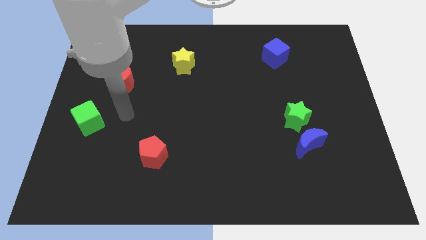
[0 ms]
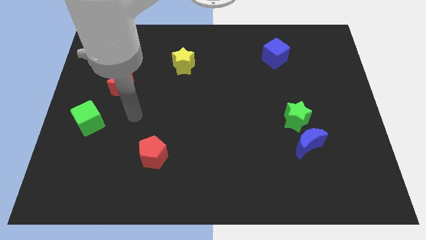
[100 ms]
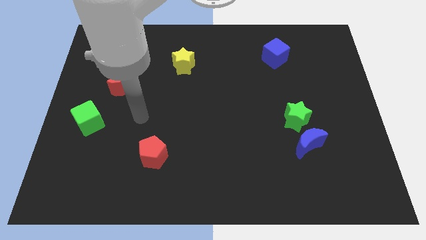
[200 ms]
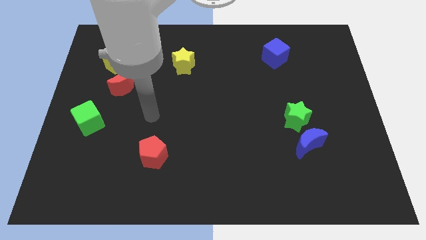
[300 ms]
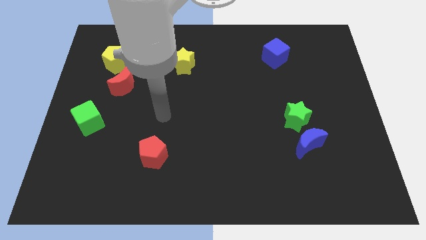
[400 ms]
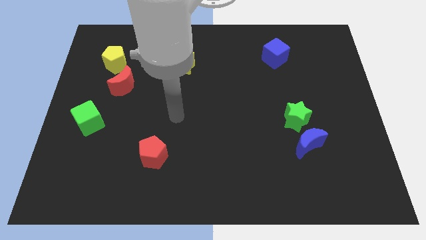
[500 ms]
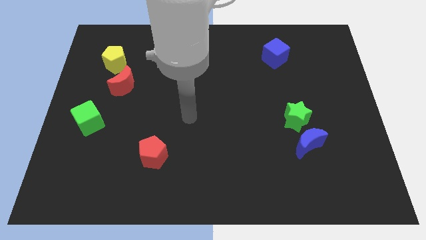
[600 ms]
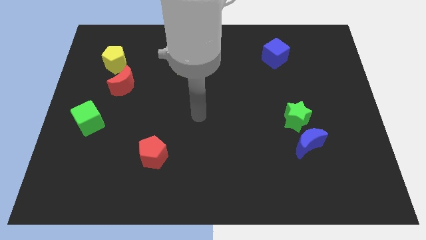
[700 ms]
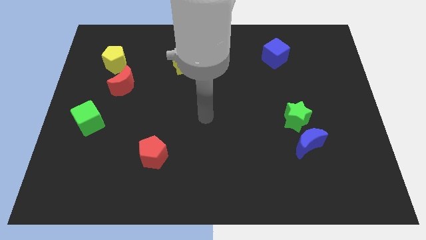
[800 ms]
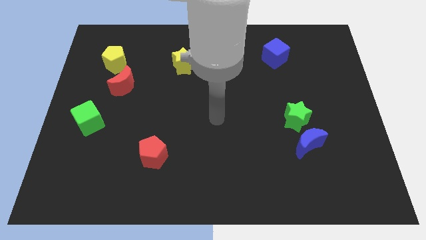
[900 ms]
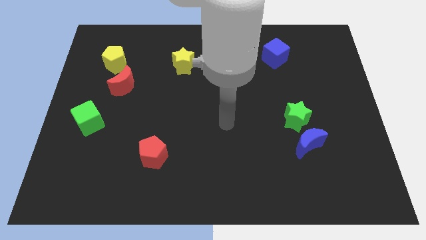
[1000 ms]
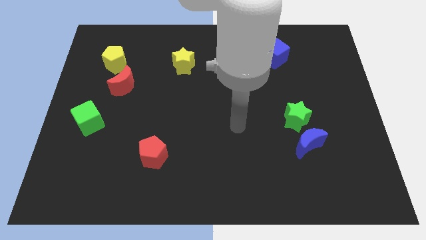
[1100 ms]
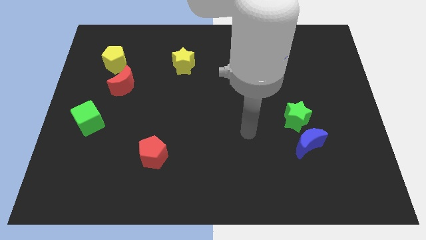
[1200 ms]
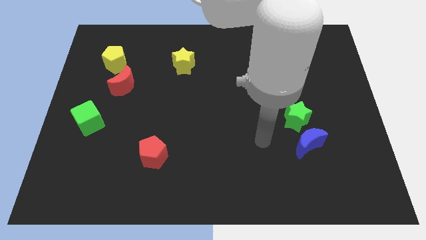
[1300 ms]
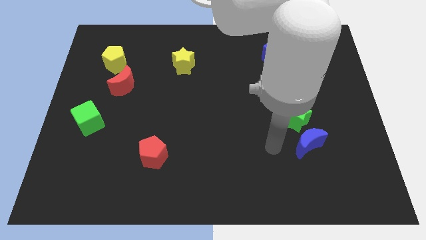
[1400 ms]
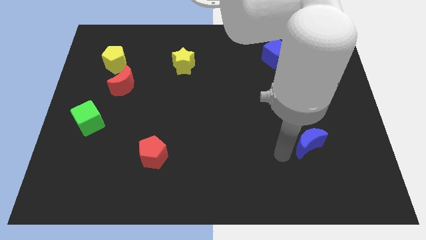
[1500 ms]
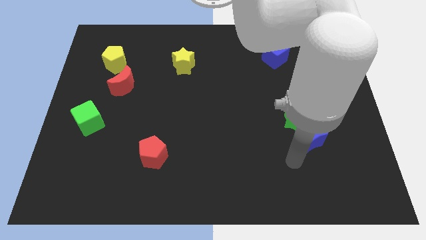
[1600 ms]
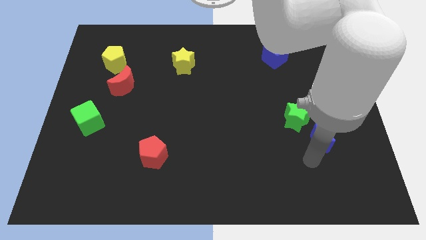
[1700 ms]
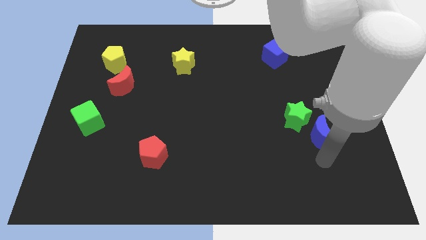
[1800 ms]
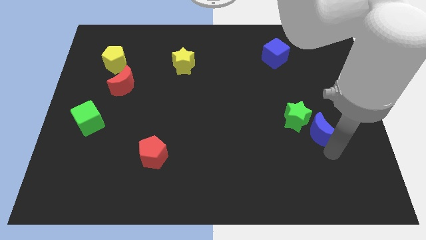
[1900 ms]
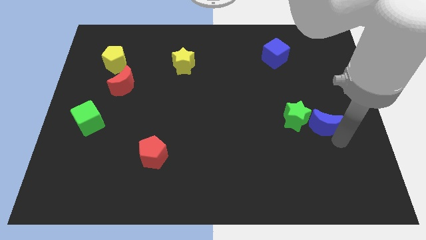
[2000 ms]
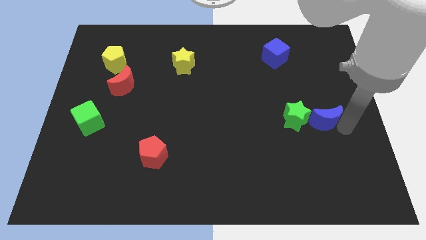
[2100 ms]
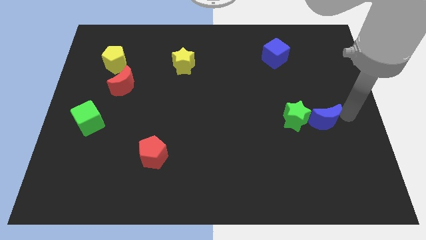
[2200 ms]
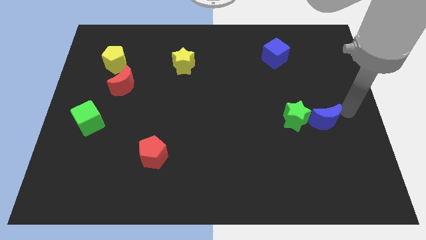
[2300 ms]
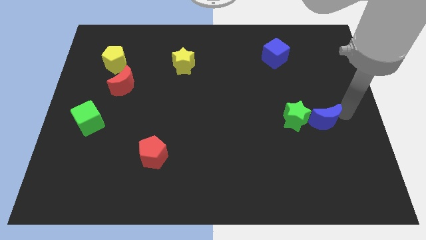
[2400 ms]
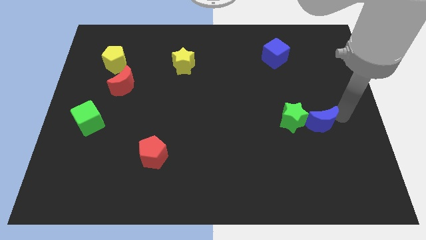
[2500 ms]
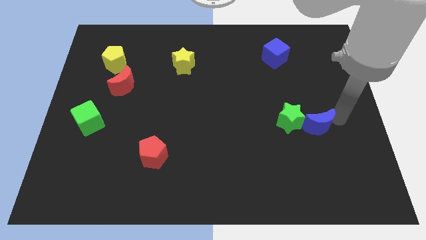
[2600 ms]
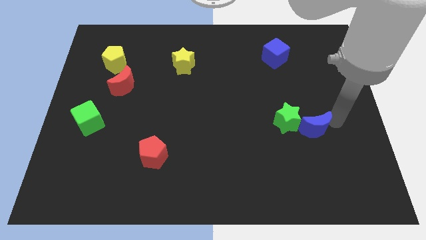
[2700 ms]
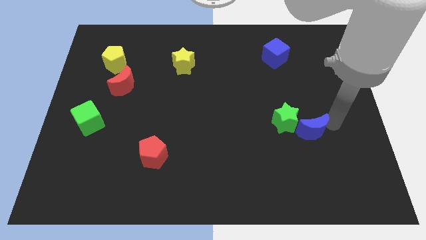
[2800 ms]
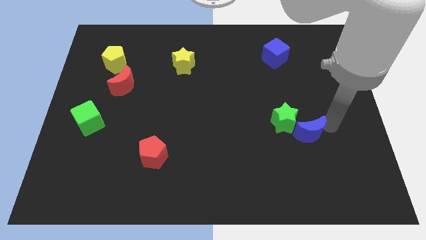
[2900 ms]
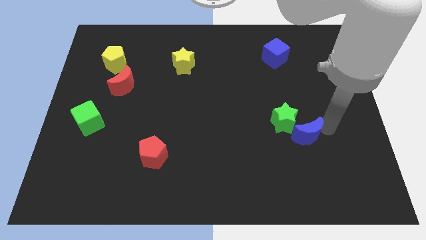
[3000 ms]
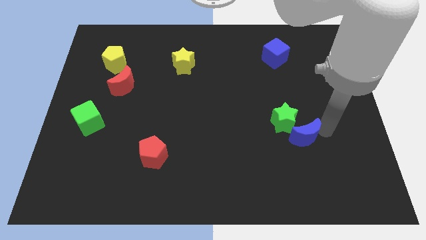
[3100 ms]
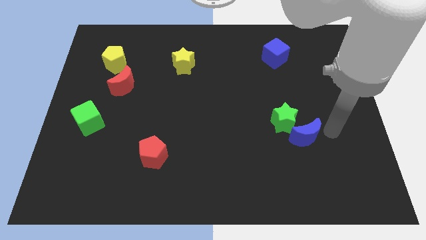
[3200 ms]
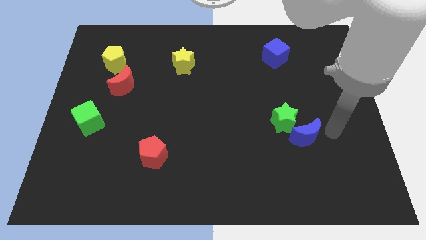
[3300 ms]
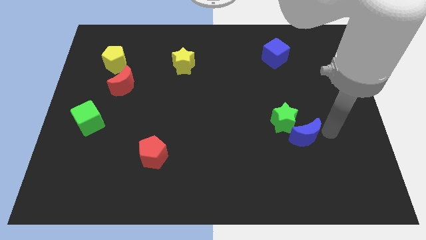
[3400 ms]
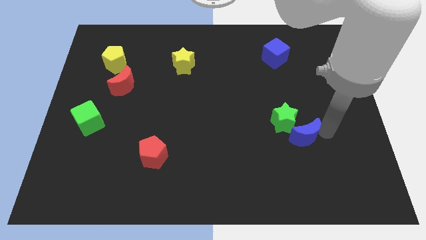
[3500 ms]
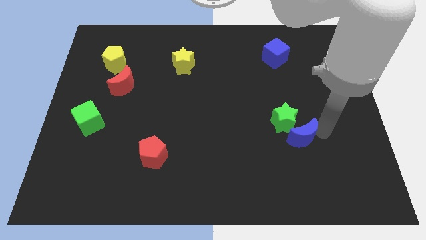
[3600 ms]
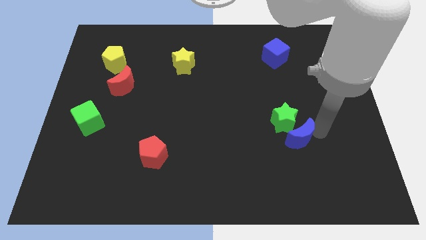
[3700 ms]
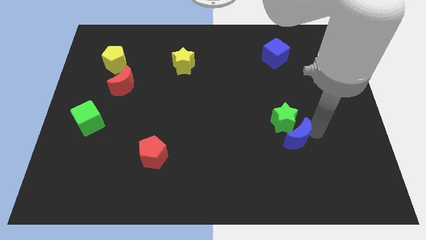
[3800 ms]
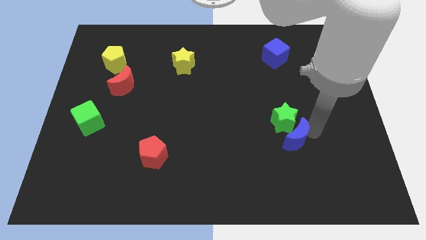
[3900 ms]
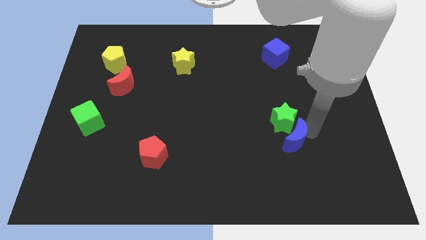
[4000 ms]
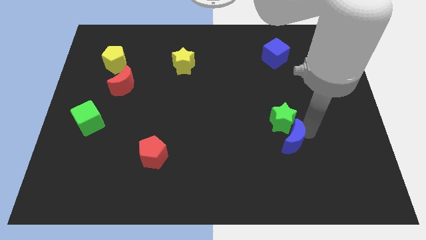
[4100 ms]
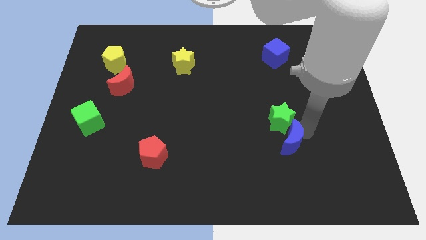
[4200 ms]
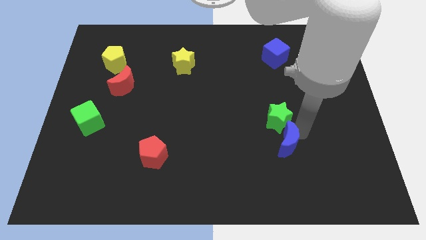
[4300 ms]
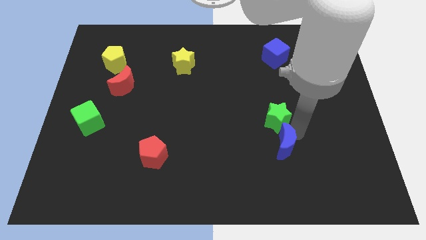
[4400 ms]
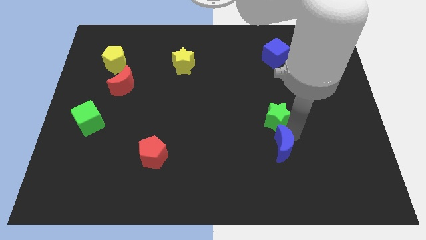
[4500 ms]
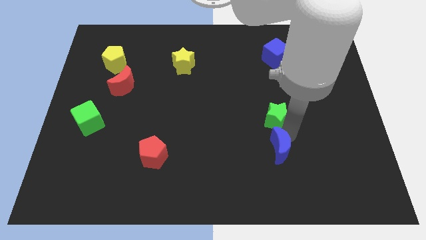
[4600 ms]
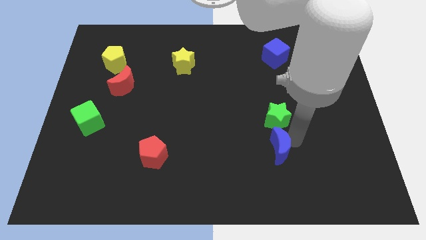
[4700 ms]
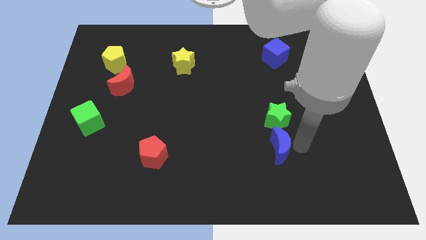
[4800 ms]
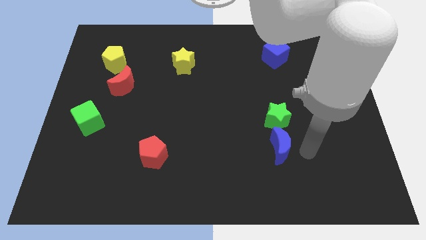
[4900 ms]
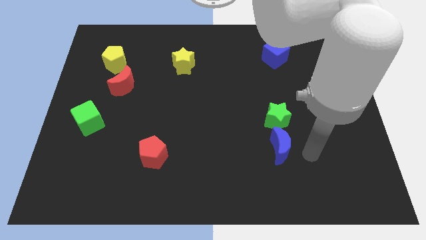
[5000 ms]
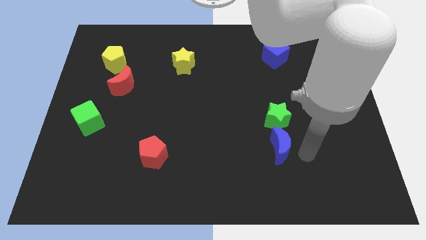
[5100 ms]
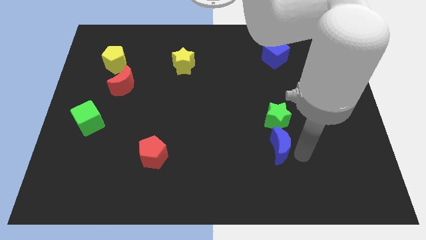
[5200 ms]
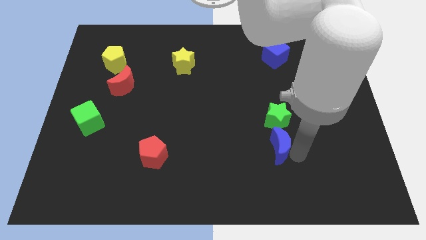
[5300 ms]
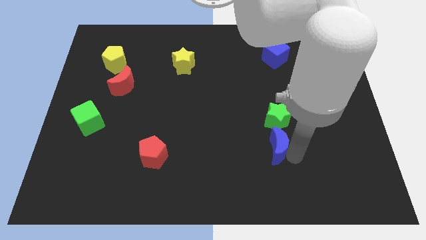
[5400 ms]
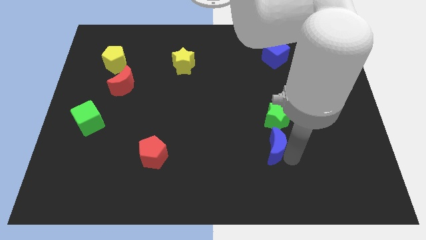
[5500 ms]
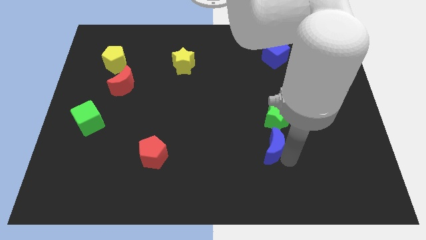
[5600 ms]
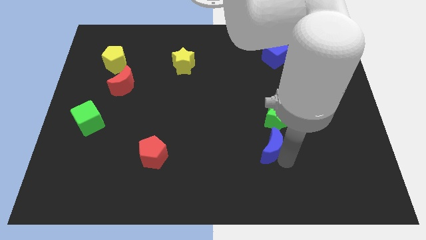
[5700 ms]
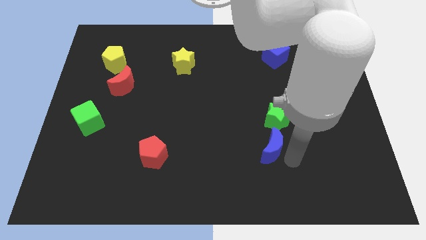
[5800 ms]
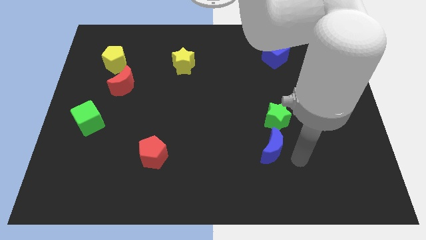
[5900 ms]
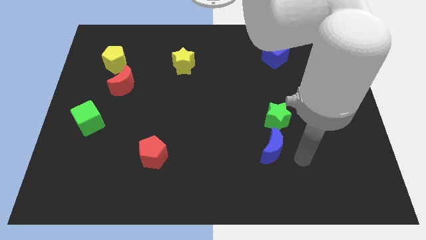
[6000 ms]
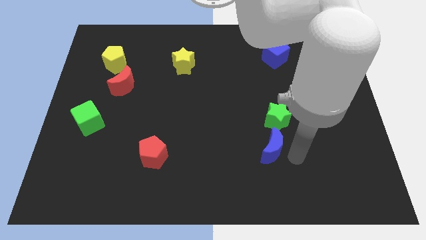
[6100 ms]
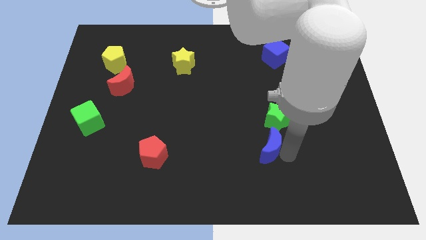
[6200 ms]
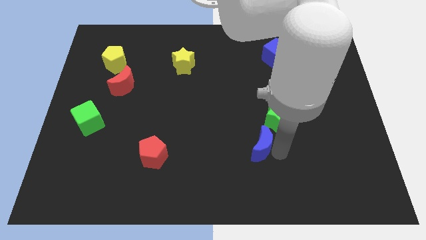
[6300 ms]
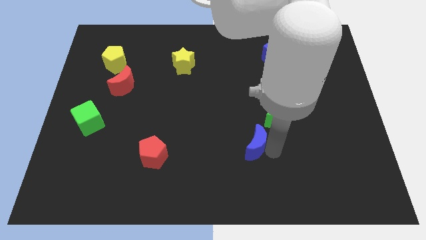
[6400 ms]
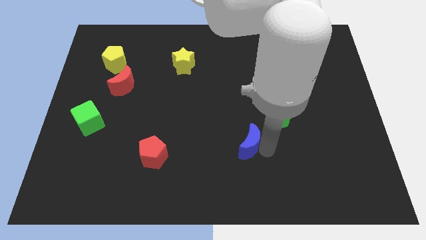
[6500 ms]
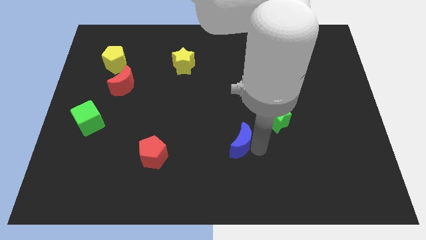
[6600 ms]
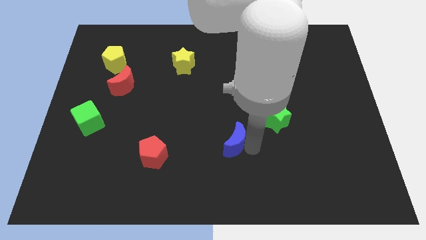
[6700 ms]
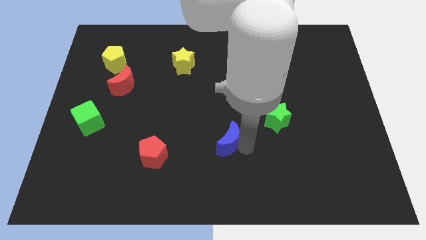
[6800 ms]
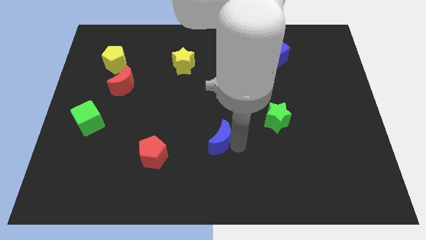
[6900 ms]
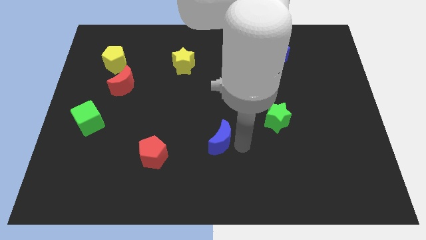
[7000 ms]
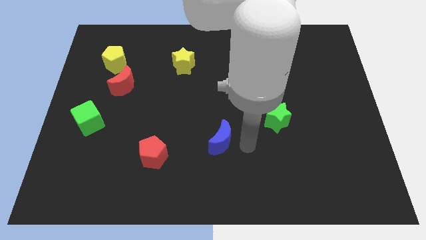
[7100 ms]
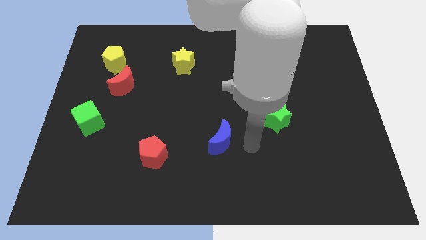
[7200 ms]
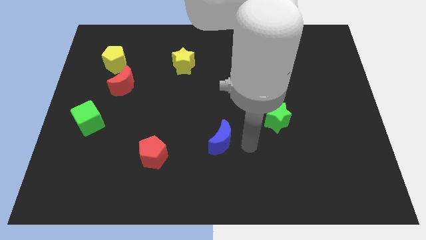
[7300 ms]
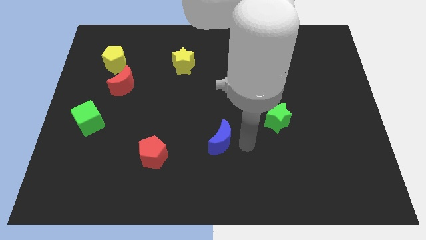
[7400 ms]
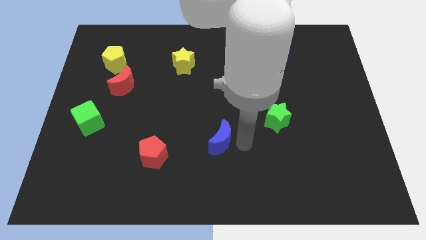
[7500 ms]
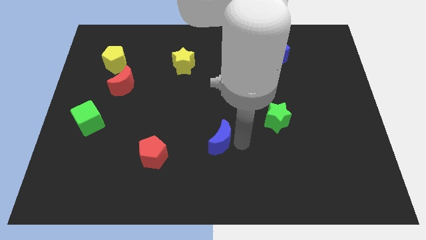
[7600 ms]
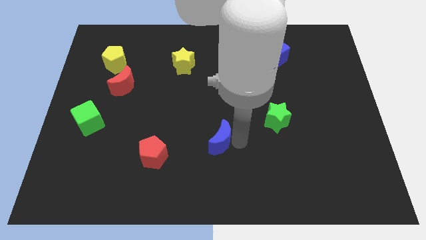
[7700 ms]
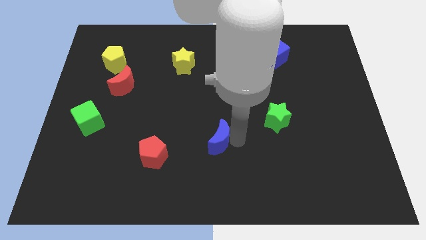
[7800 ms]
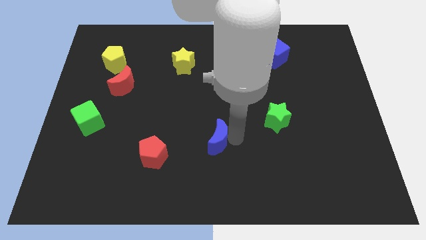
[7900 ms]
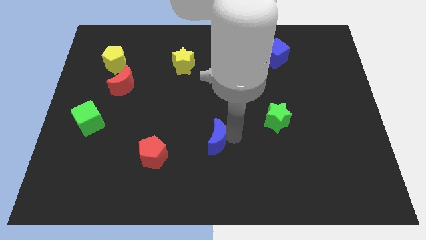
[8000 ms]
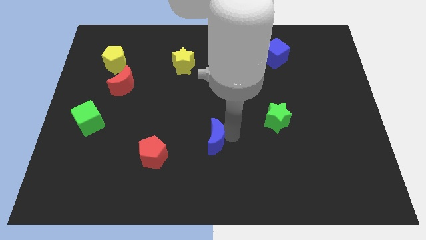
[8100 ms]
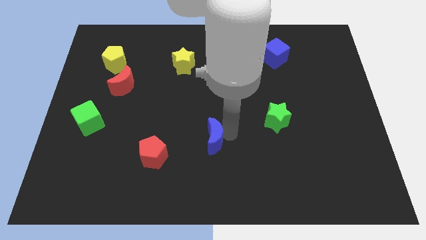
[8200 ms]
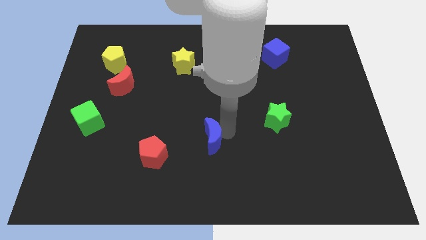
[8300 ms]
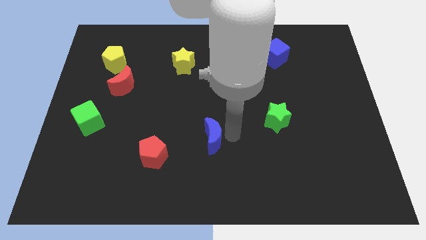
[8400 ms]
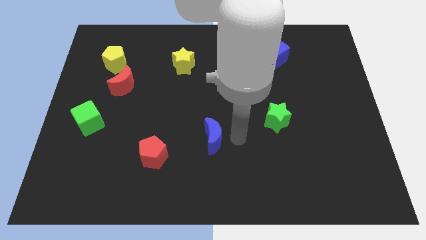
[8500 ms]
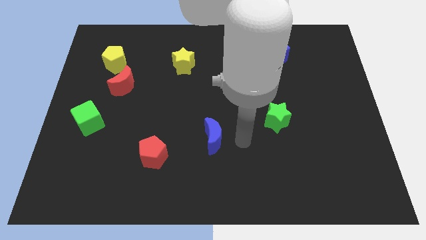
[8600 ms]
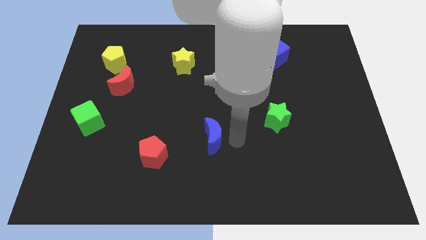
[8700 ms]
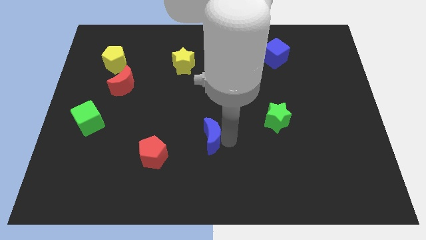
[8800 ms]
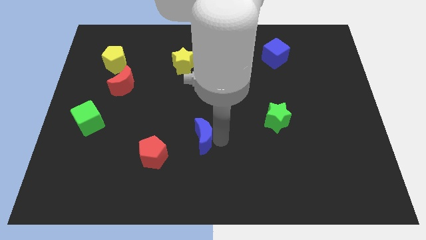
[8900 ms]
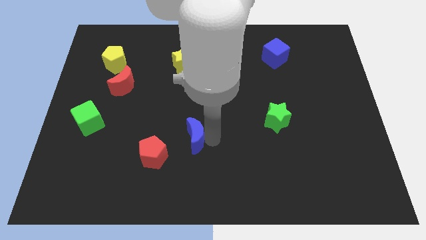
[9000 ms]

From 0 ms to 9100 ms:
put the blue moon to the top right side of the red pentagon
